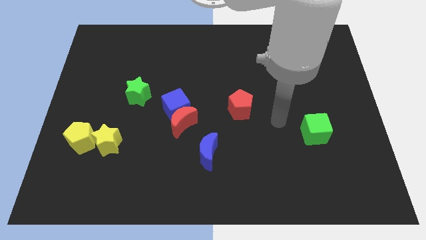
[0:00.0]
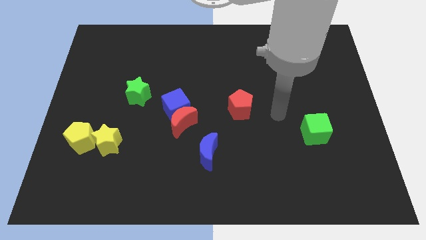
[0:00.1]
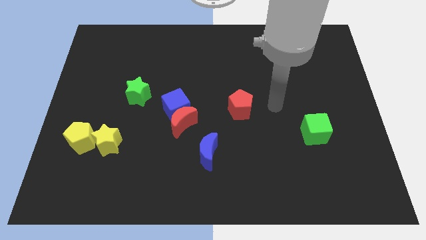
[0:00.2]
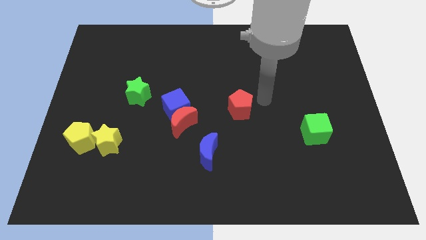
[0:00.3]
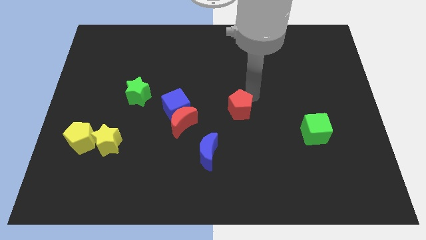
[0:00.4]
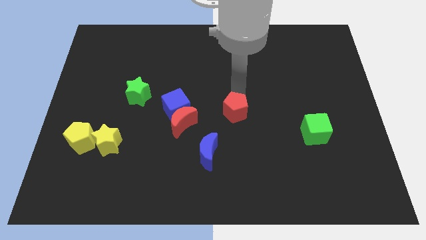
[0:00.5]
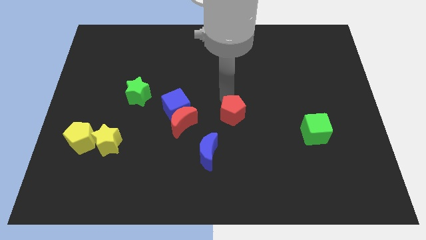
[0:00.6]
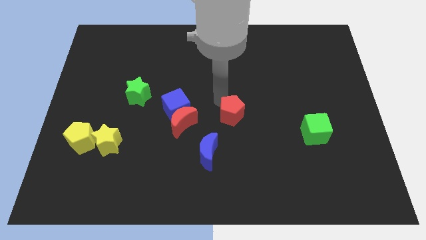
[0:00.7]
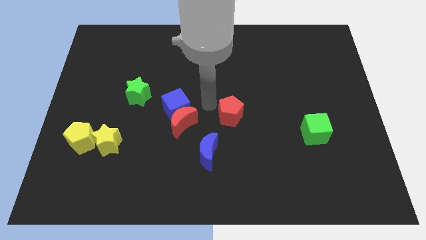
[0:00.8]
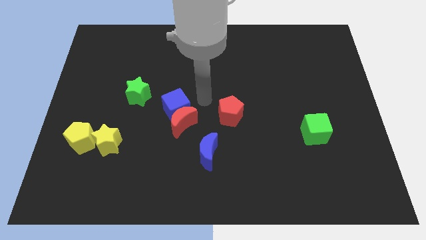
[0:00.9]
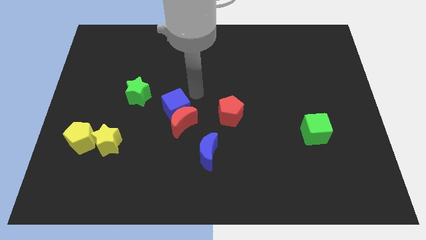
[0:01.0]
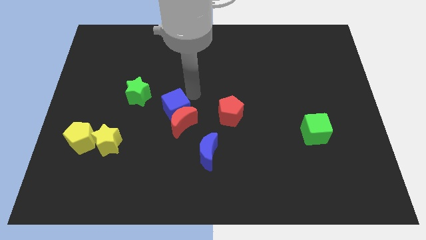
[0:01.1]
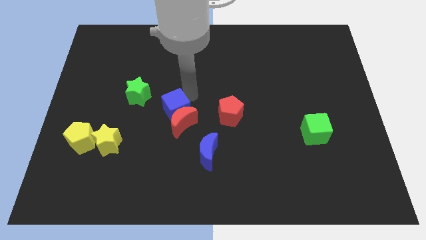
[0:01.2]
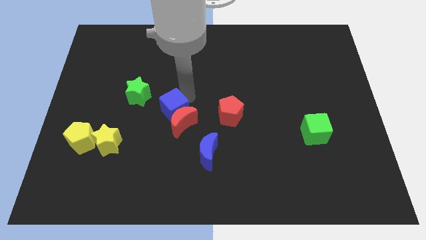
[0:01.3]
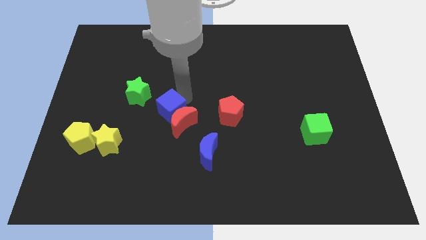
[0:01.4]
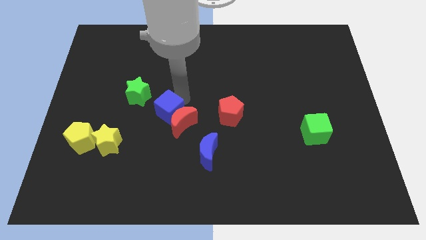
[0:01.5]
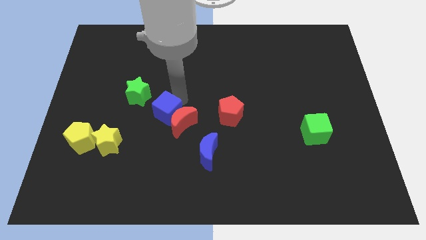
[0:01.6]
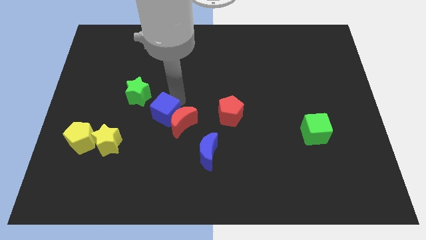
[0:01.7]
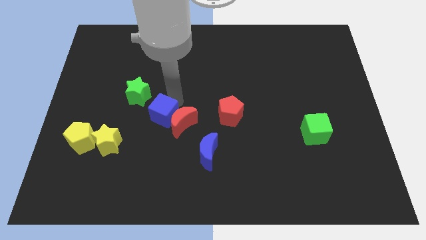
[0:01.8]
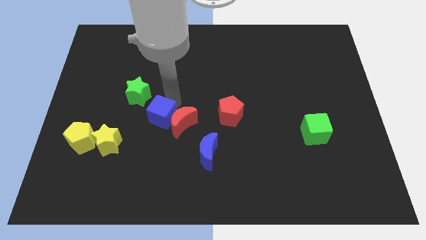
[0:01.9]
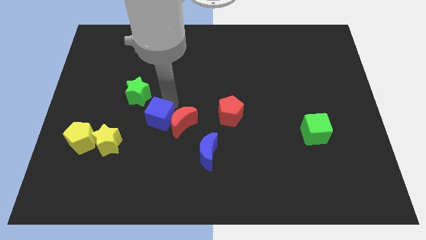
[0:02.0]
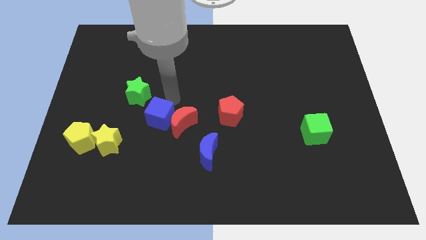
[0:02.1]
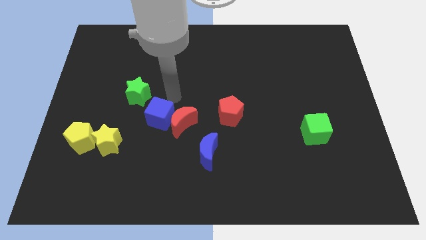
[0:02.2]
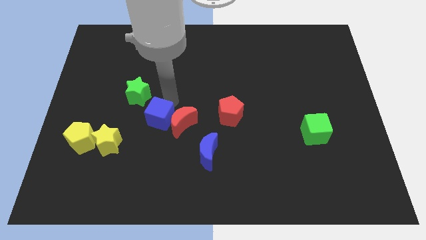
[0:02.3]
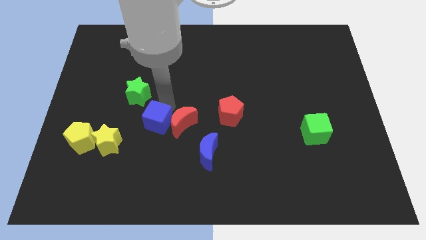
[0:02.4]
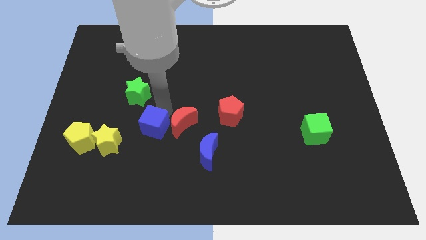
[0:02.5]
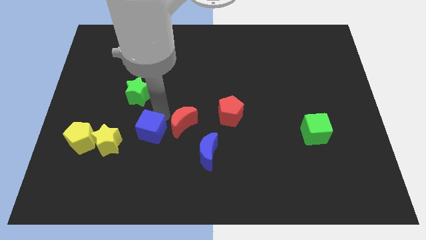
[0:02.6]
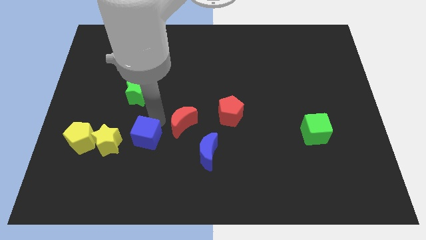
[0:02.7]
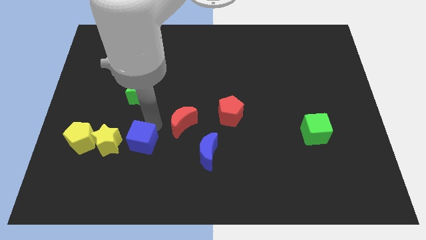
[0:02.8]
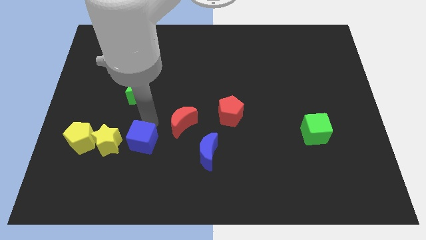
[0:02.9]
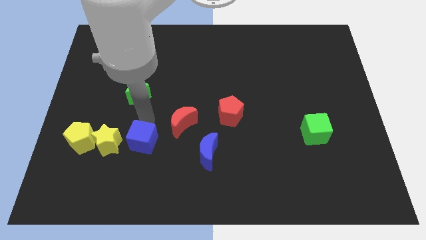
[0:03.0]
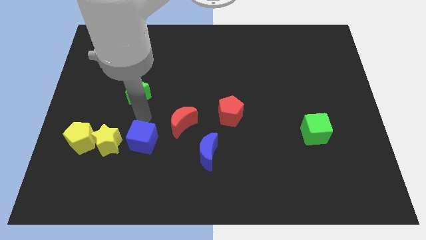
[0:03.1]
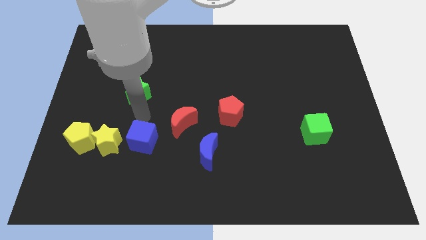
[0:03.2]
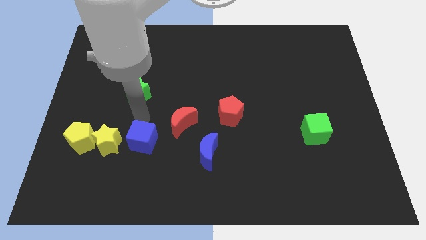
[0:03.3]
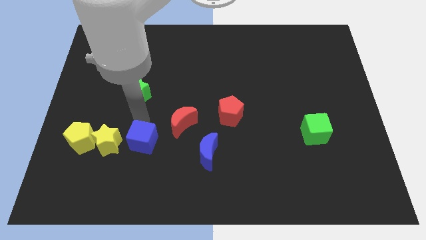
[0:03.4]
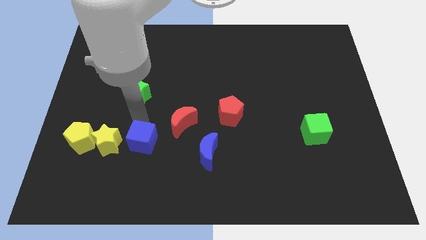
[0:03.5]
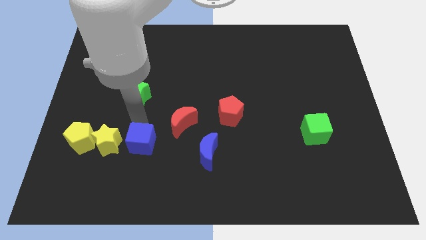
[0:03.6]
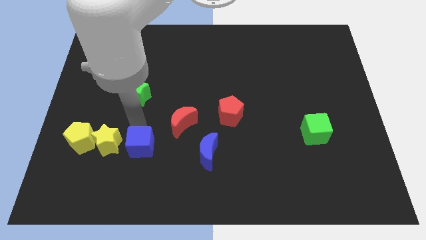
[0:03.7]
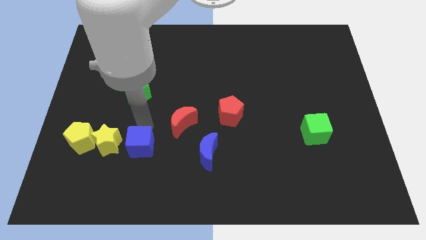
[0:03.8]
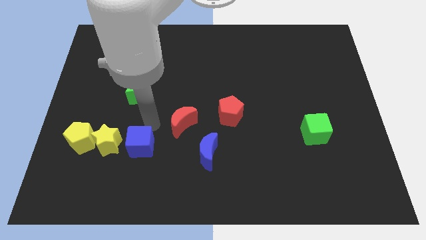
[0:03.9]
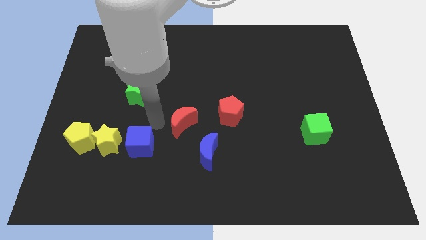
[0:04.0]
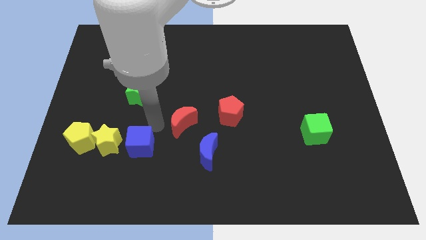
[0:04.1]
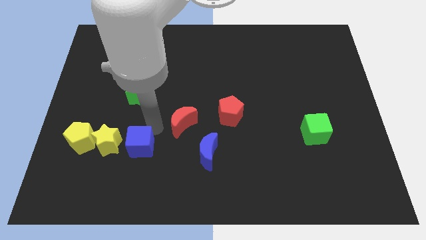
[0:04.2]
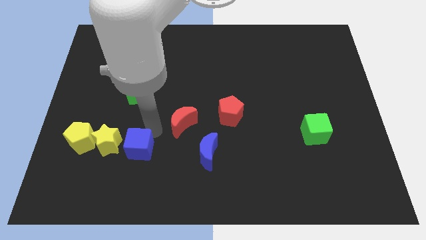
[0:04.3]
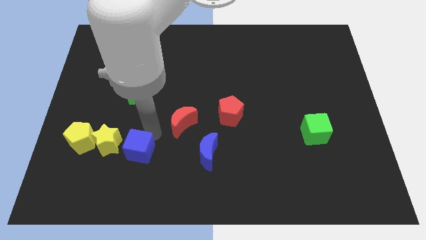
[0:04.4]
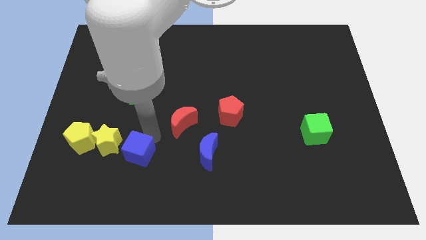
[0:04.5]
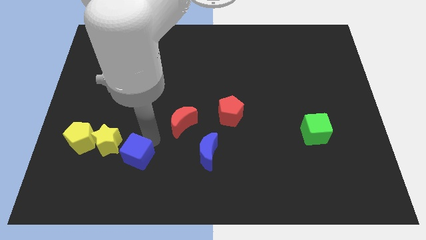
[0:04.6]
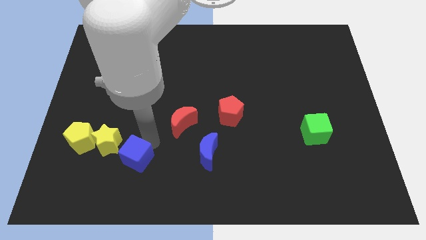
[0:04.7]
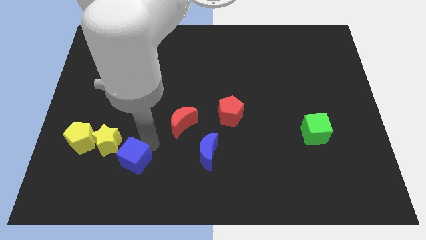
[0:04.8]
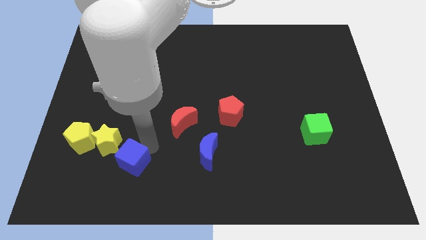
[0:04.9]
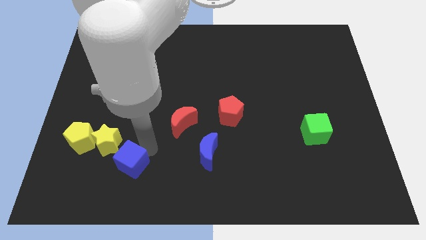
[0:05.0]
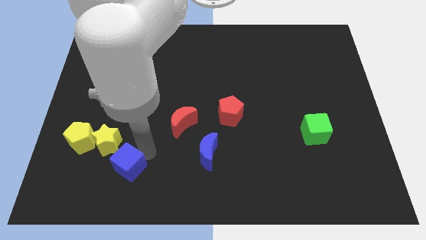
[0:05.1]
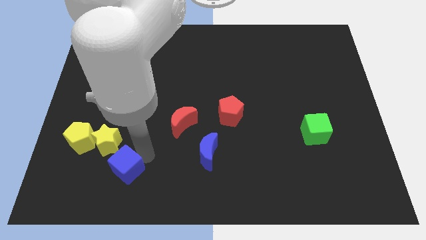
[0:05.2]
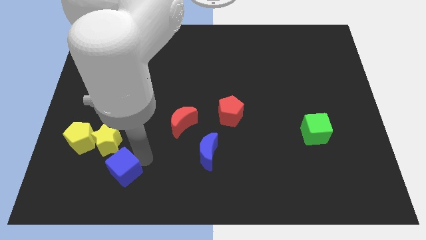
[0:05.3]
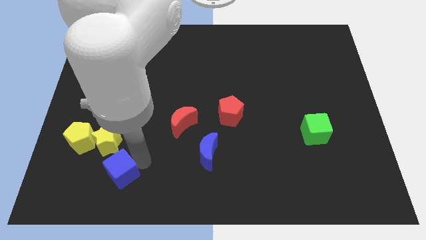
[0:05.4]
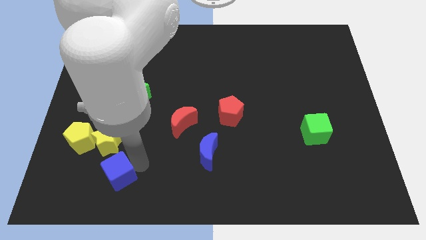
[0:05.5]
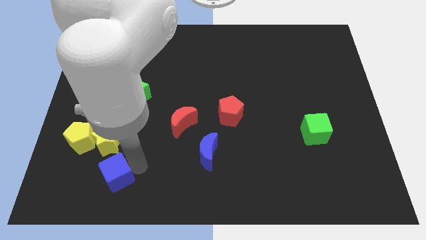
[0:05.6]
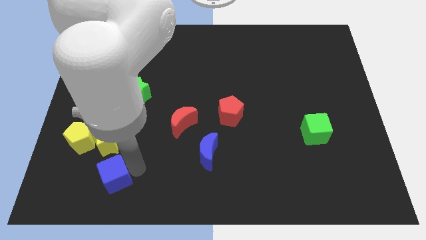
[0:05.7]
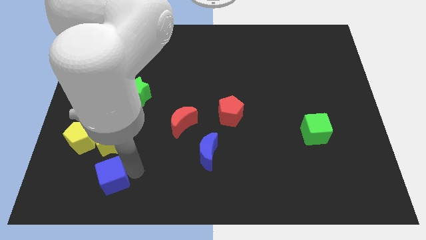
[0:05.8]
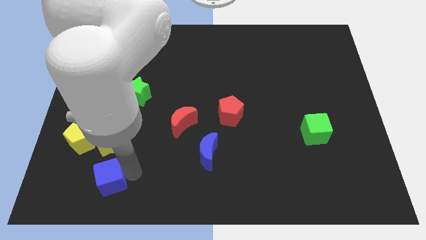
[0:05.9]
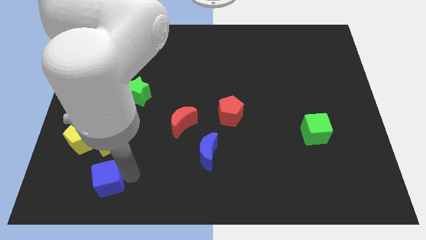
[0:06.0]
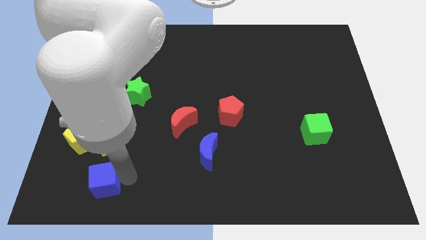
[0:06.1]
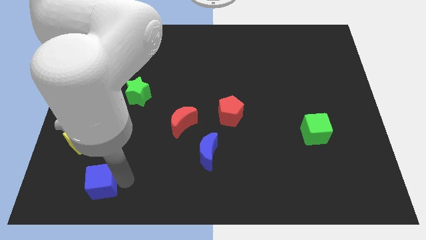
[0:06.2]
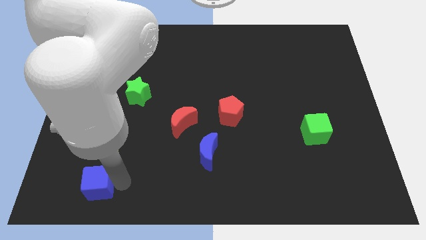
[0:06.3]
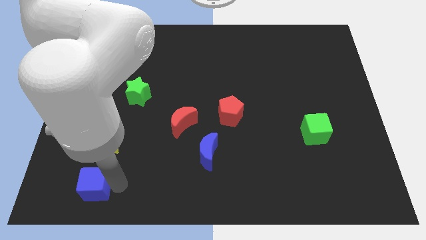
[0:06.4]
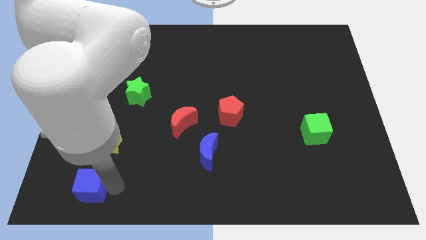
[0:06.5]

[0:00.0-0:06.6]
move the blue cube to the bottom of the yellow pentagon
